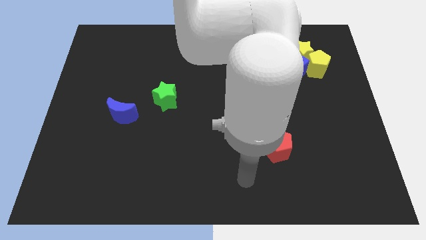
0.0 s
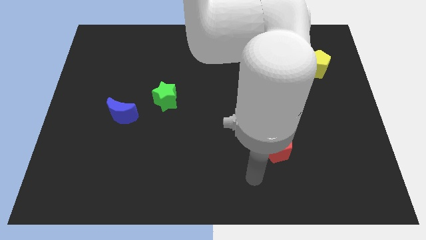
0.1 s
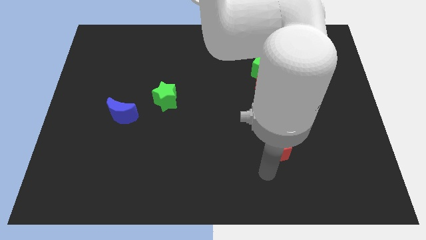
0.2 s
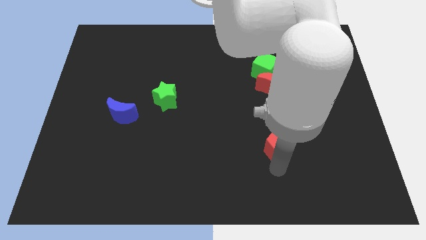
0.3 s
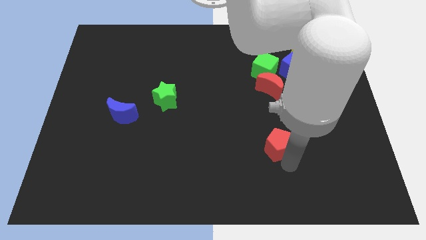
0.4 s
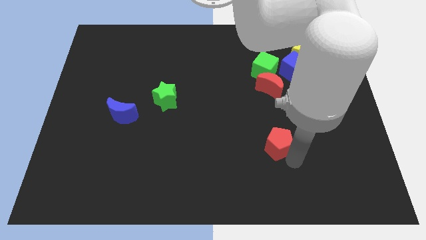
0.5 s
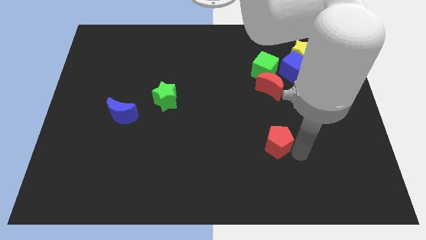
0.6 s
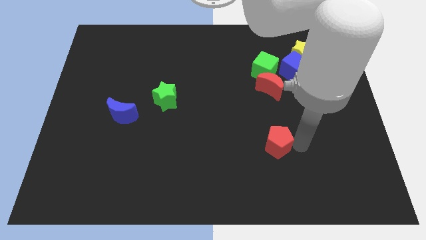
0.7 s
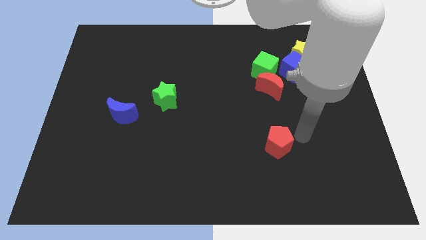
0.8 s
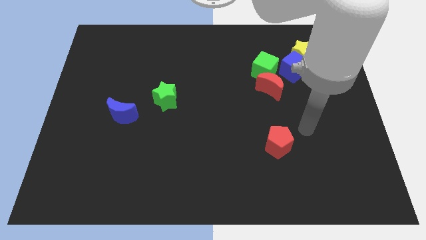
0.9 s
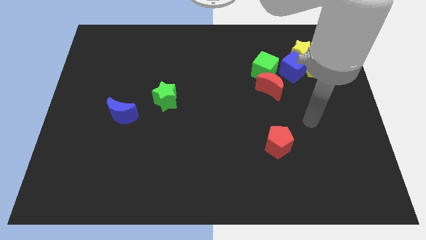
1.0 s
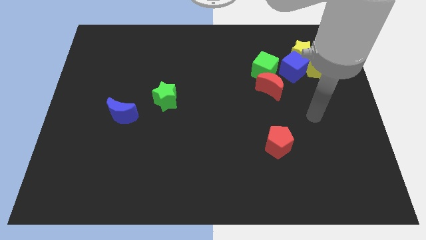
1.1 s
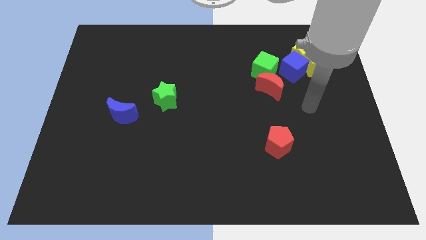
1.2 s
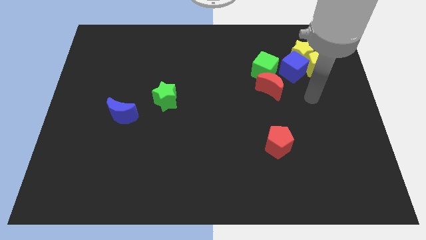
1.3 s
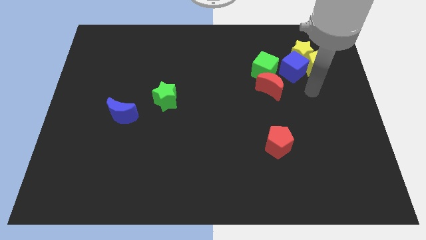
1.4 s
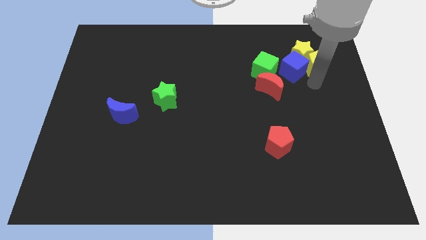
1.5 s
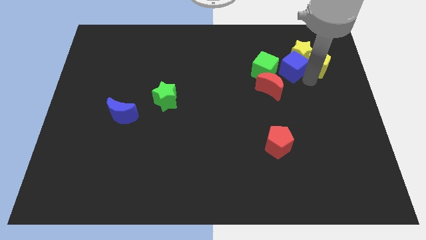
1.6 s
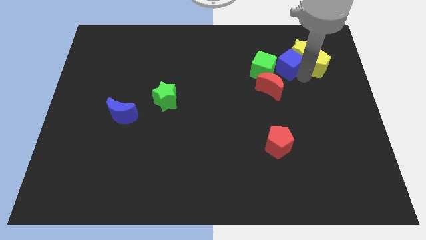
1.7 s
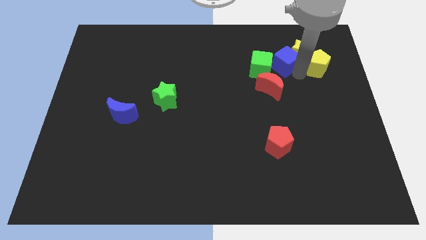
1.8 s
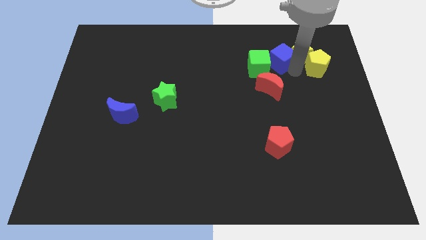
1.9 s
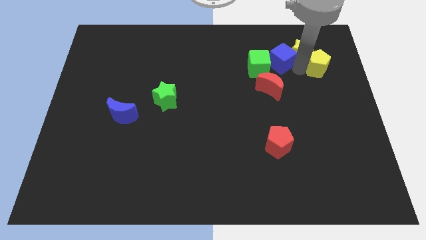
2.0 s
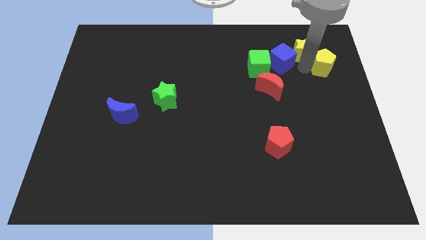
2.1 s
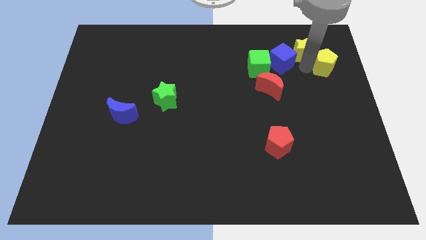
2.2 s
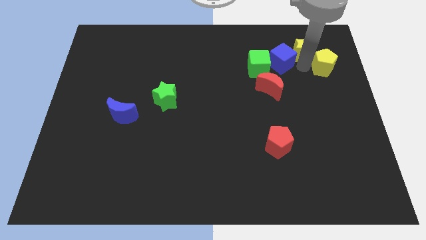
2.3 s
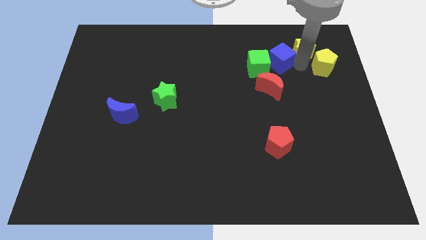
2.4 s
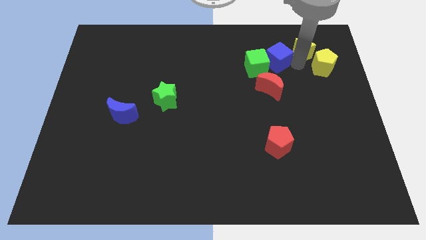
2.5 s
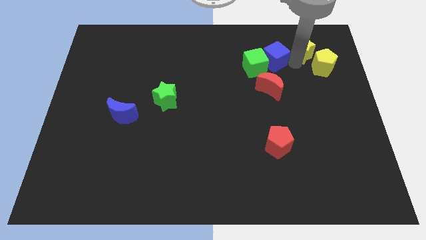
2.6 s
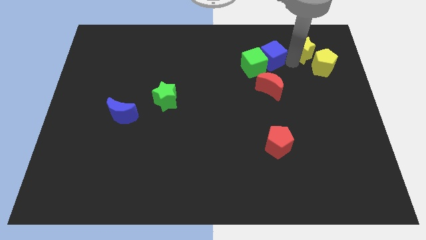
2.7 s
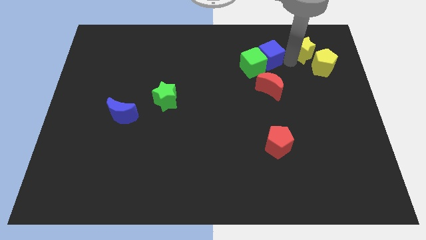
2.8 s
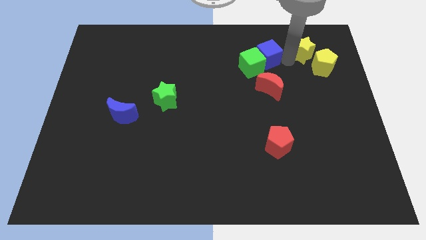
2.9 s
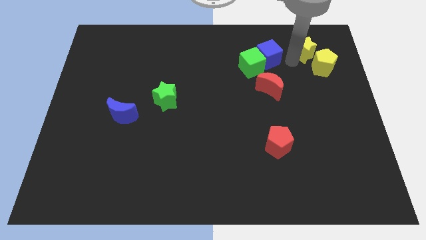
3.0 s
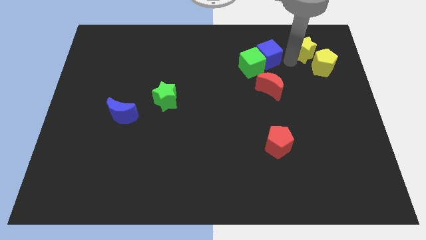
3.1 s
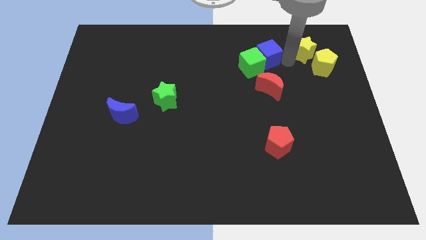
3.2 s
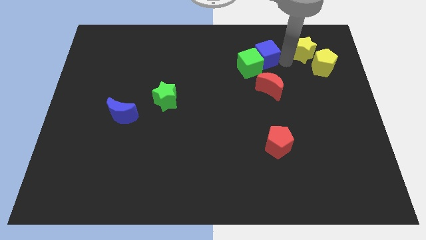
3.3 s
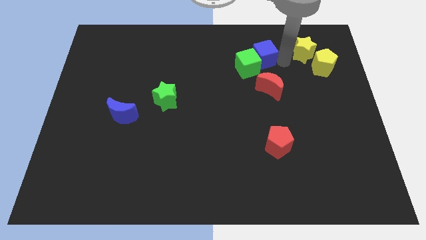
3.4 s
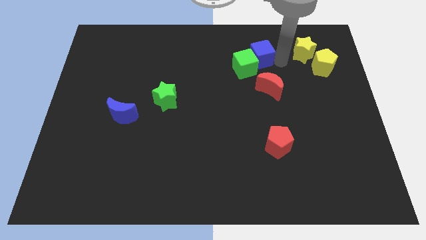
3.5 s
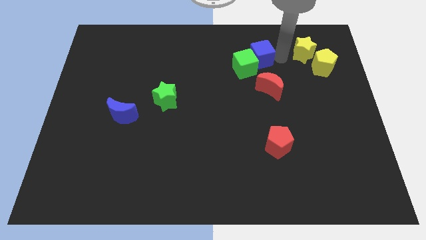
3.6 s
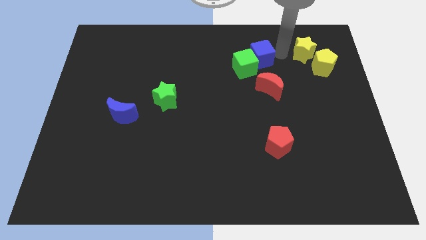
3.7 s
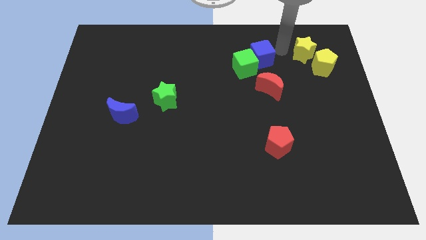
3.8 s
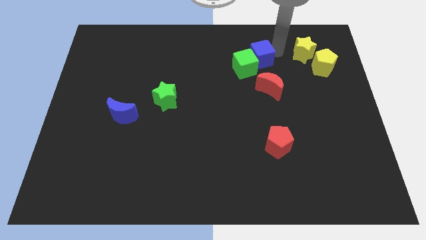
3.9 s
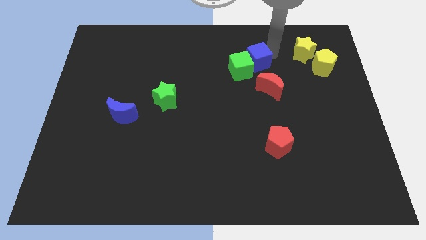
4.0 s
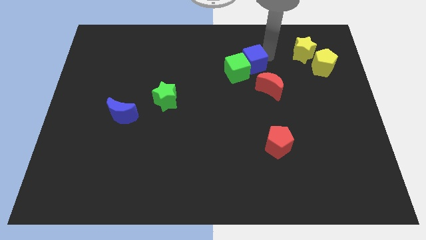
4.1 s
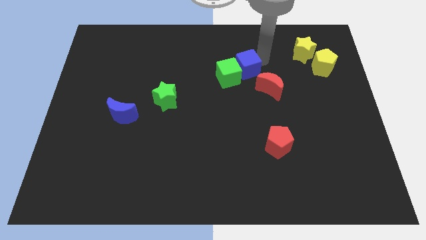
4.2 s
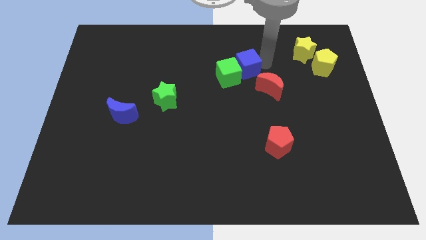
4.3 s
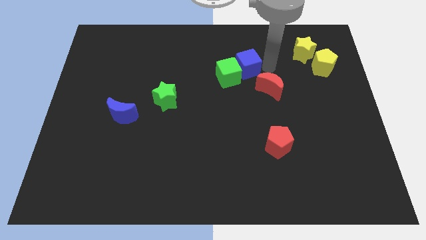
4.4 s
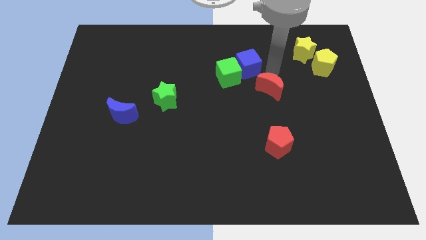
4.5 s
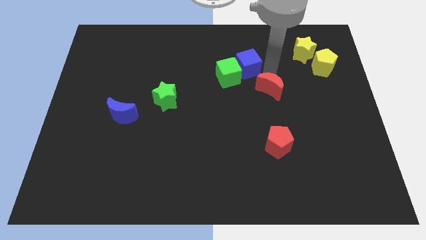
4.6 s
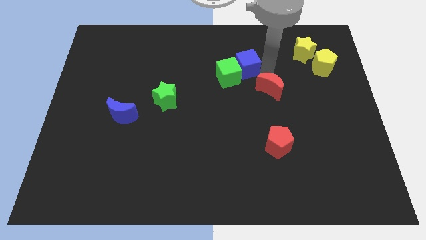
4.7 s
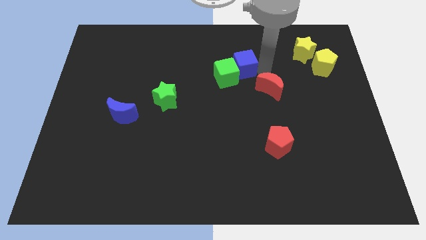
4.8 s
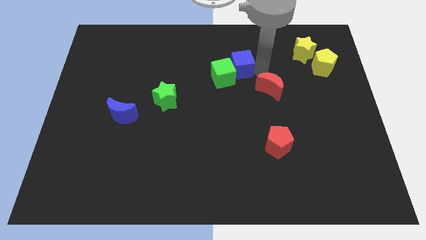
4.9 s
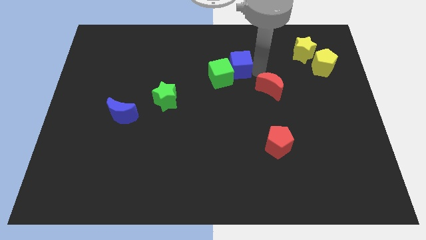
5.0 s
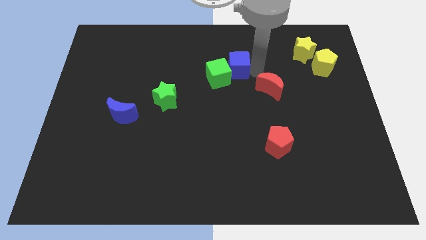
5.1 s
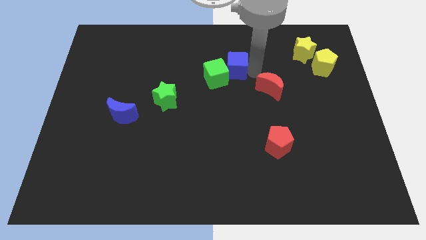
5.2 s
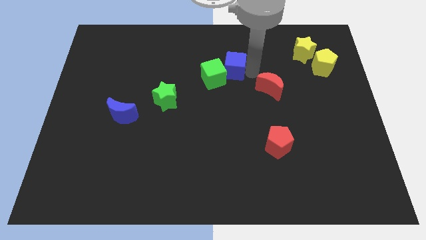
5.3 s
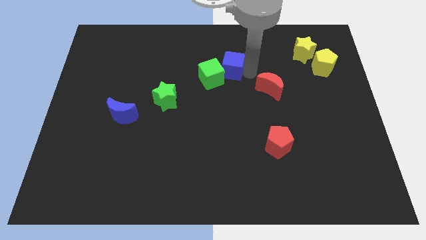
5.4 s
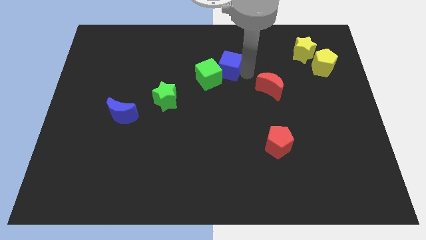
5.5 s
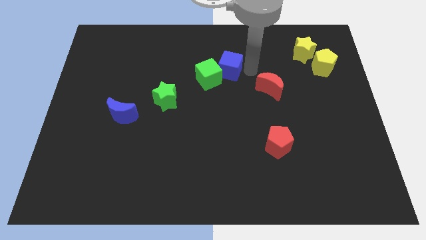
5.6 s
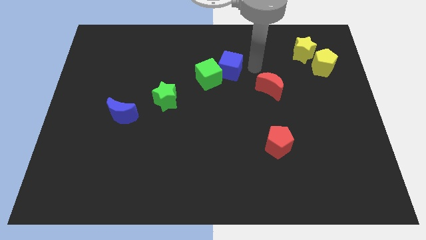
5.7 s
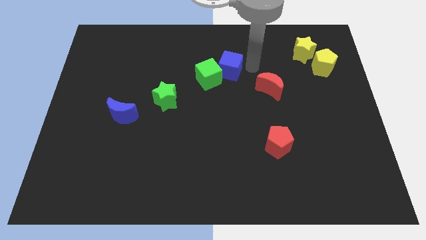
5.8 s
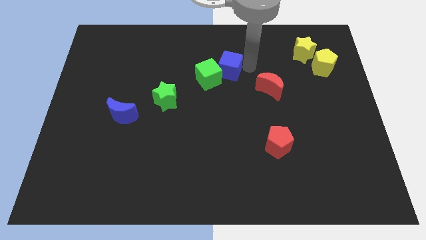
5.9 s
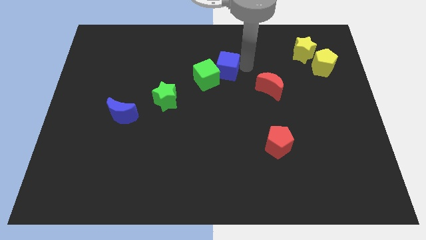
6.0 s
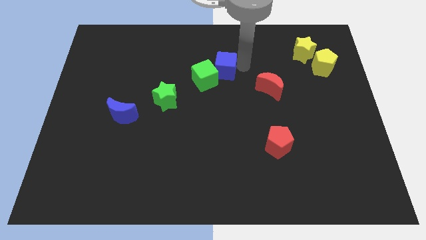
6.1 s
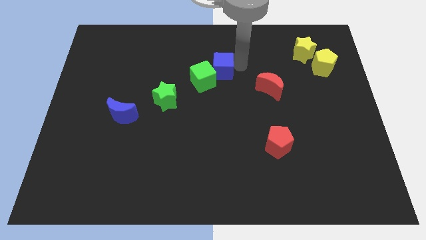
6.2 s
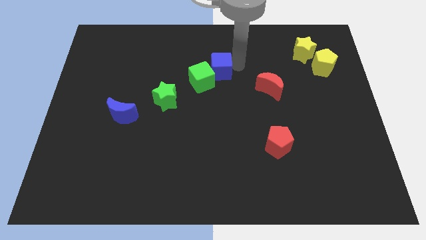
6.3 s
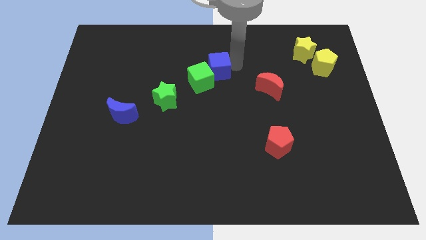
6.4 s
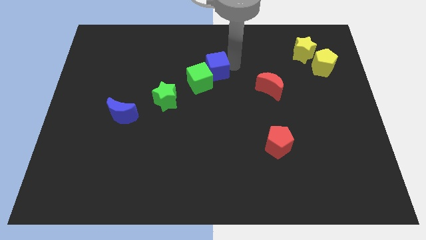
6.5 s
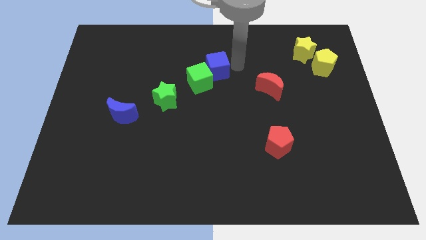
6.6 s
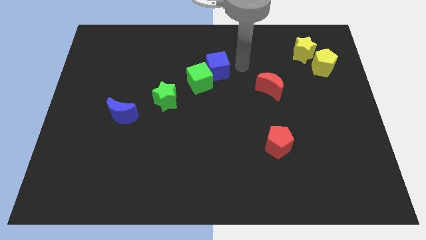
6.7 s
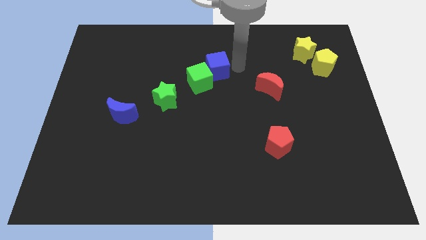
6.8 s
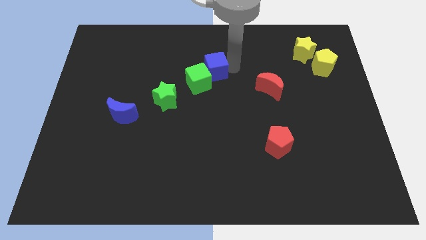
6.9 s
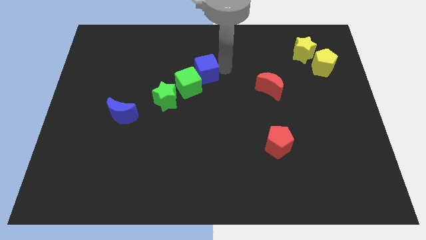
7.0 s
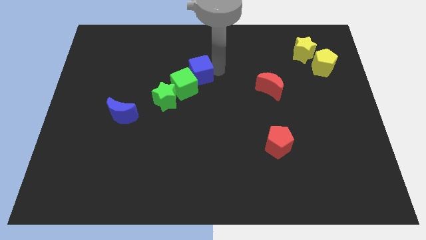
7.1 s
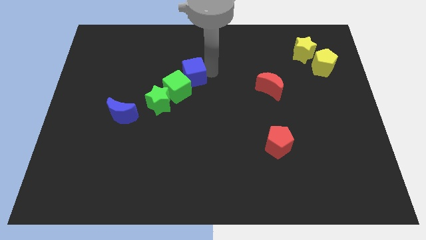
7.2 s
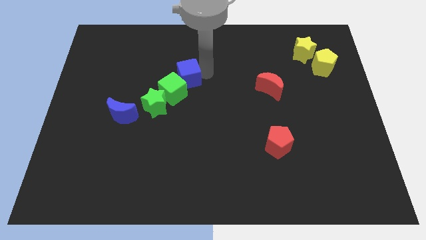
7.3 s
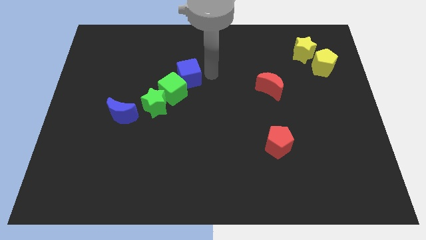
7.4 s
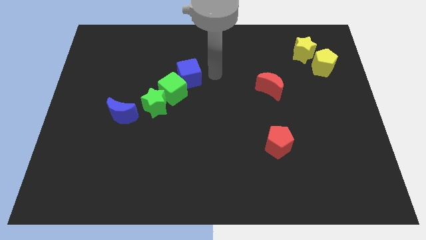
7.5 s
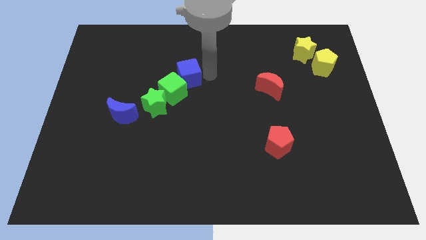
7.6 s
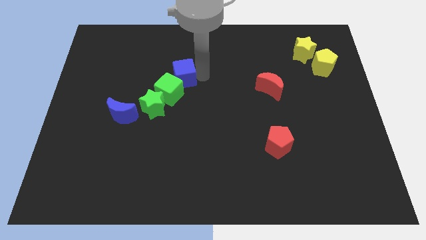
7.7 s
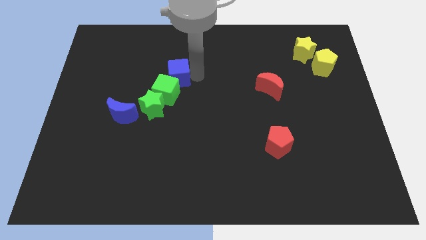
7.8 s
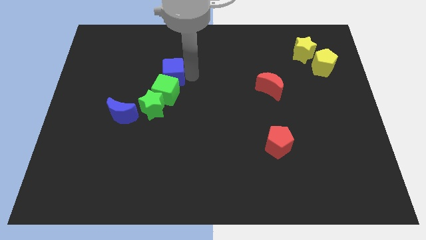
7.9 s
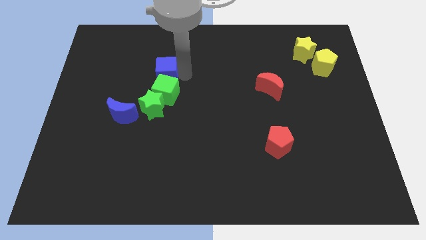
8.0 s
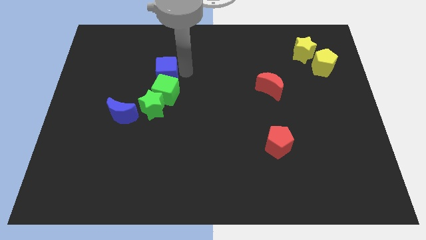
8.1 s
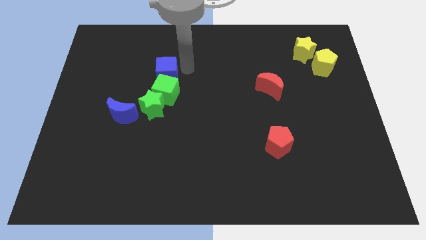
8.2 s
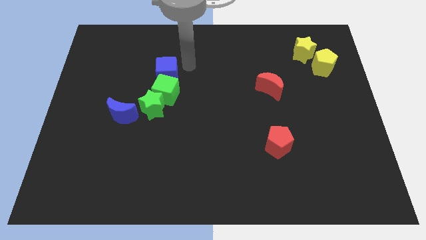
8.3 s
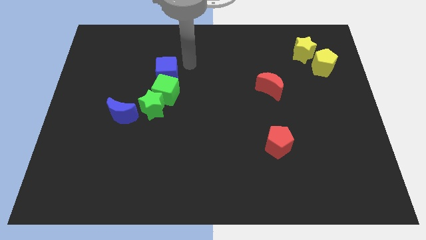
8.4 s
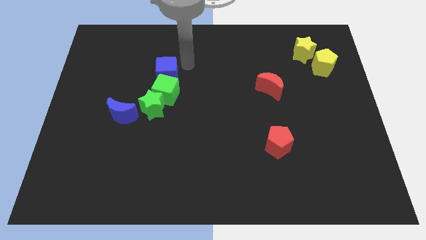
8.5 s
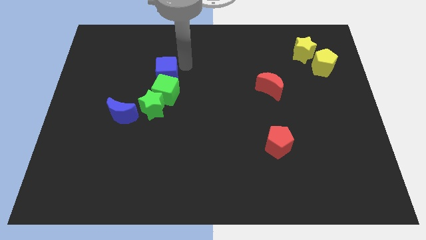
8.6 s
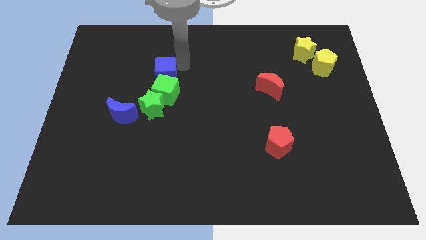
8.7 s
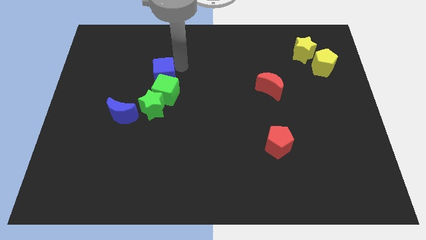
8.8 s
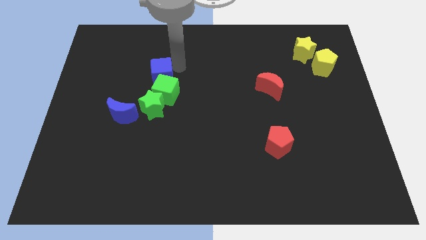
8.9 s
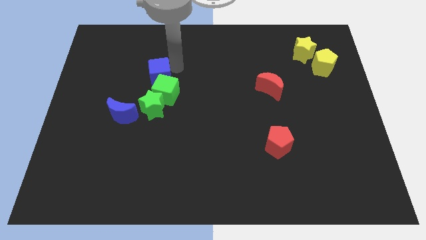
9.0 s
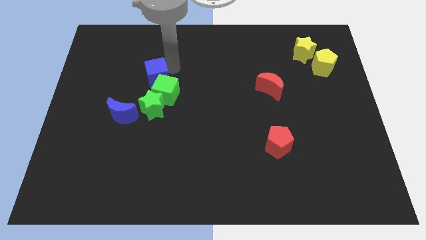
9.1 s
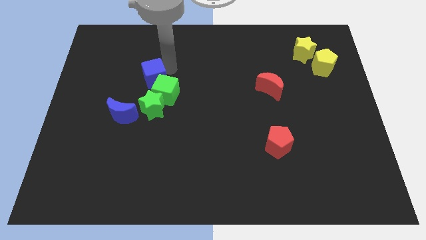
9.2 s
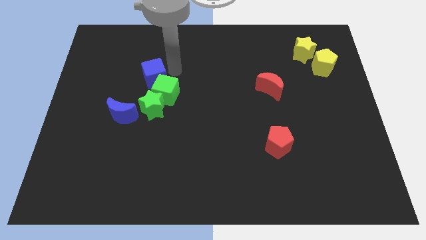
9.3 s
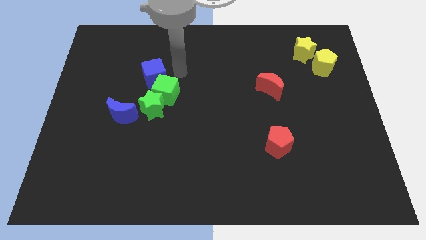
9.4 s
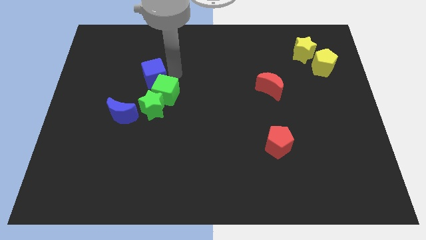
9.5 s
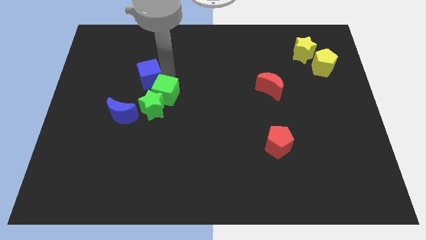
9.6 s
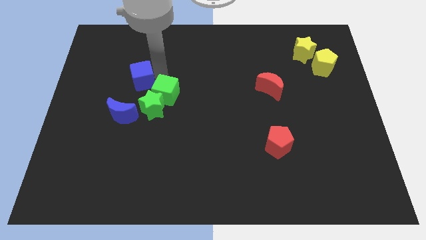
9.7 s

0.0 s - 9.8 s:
push the blue cube above the blue moon
